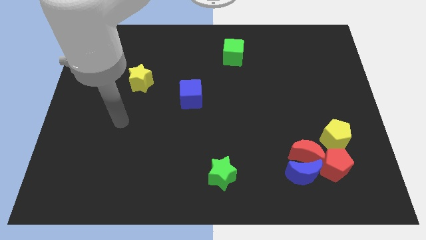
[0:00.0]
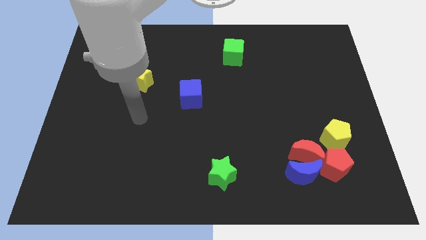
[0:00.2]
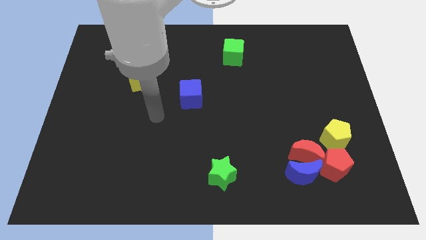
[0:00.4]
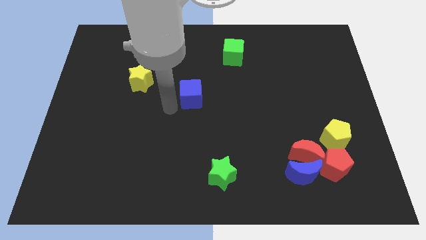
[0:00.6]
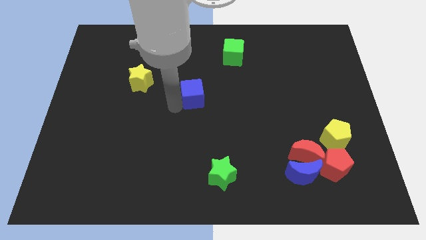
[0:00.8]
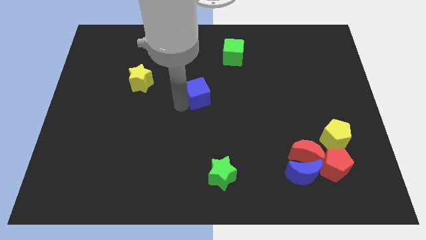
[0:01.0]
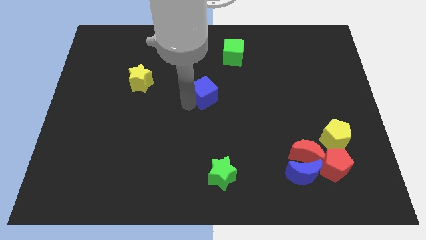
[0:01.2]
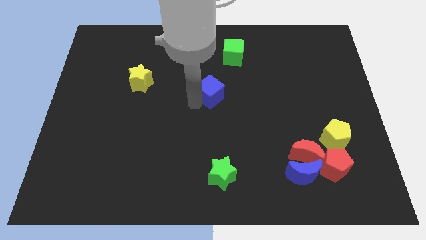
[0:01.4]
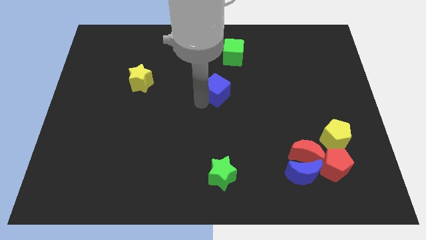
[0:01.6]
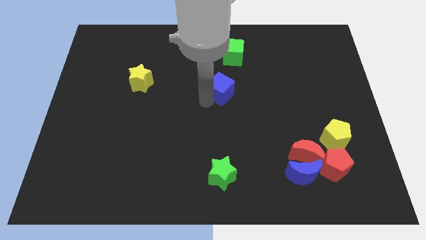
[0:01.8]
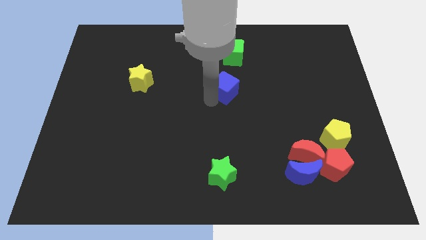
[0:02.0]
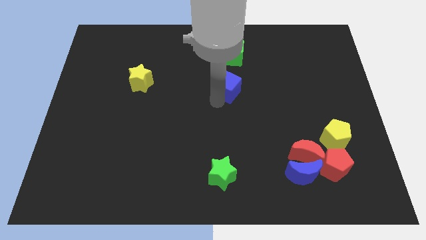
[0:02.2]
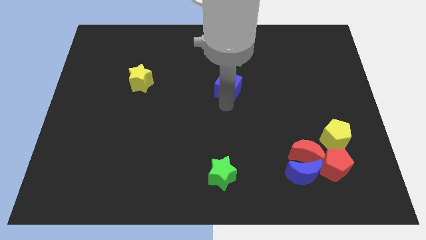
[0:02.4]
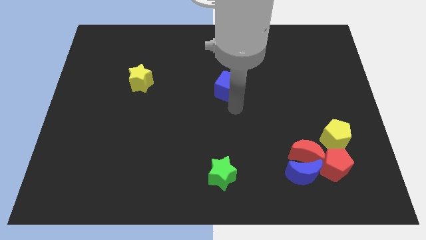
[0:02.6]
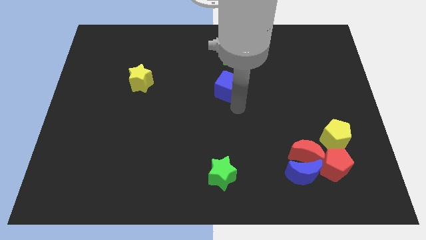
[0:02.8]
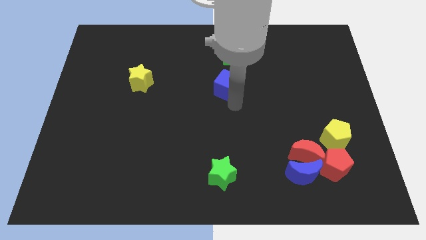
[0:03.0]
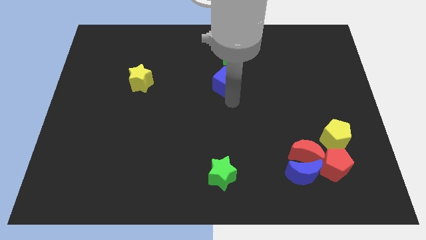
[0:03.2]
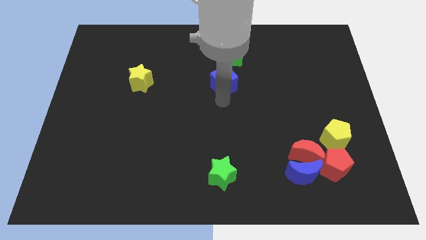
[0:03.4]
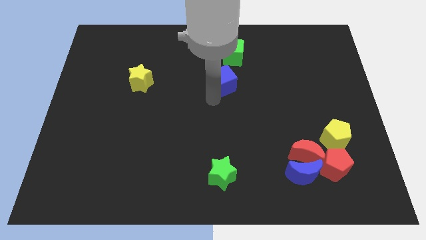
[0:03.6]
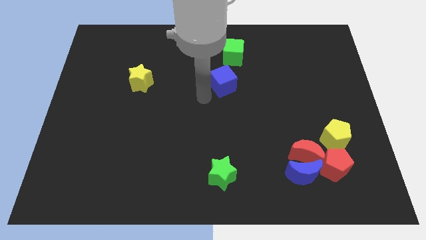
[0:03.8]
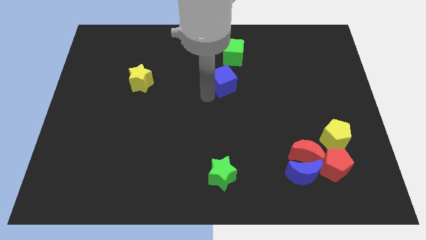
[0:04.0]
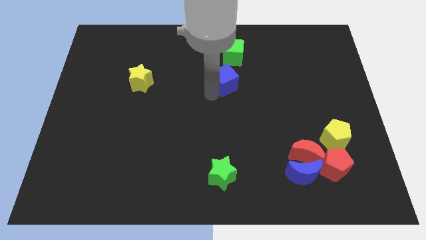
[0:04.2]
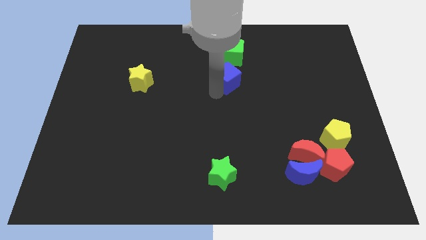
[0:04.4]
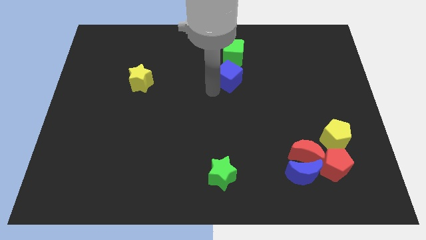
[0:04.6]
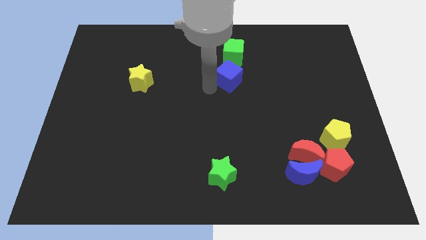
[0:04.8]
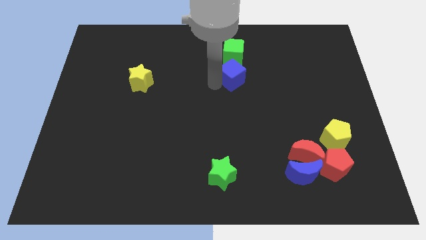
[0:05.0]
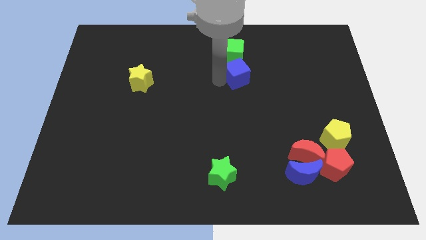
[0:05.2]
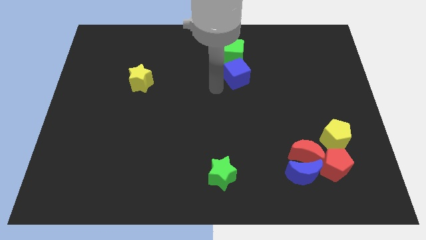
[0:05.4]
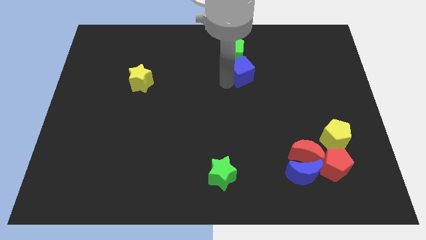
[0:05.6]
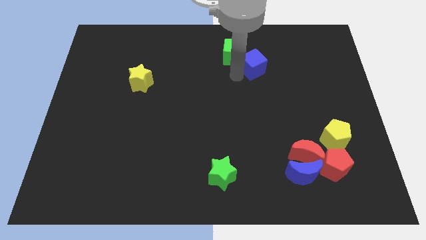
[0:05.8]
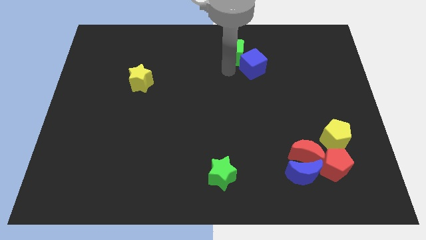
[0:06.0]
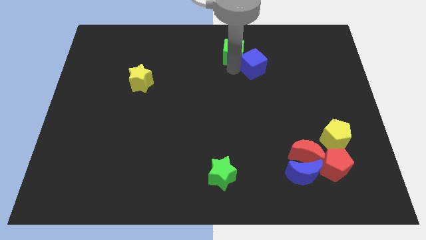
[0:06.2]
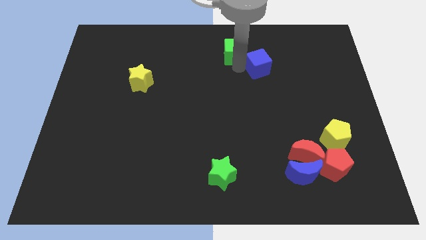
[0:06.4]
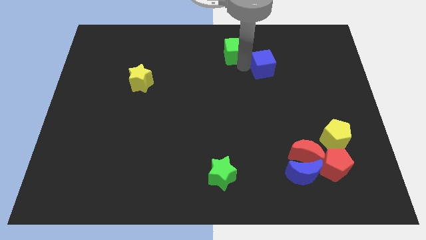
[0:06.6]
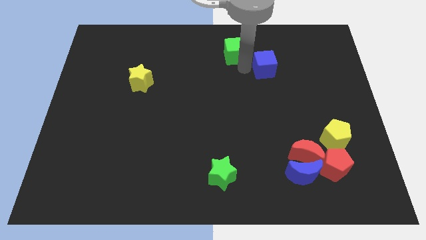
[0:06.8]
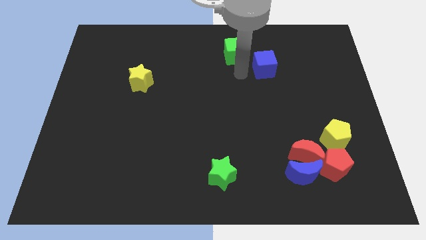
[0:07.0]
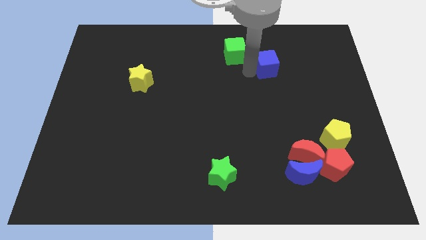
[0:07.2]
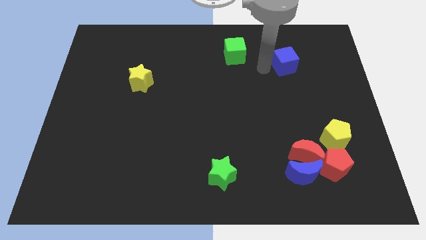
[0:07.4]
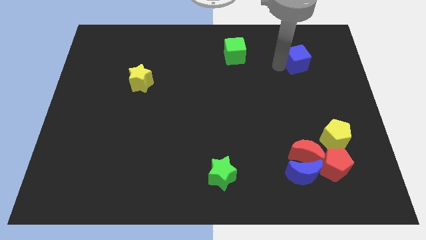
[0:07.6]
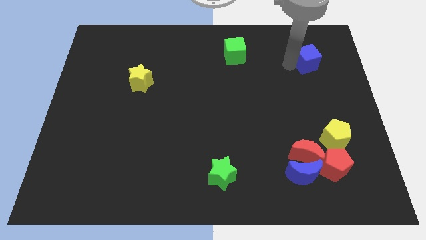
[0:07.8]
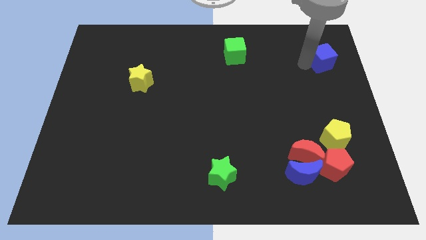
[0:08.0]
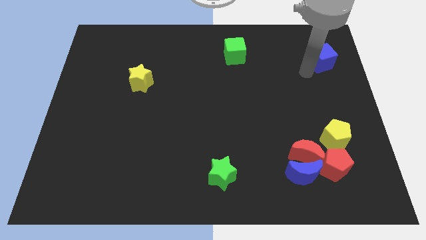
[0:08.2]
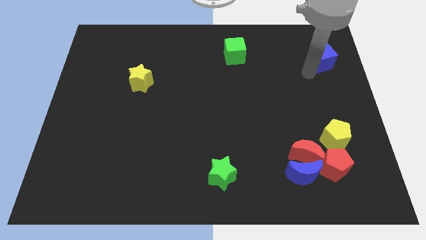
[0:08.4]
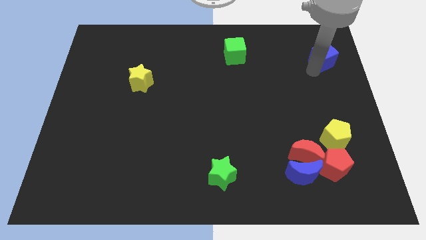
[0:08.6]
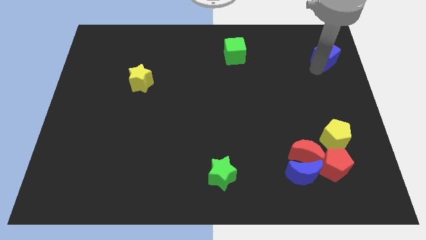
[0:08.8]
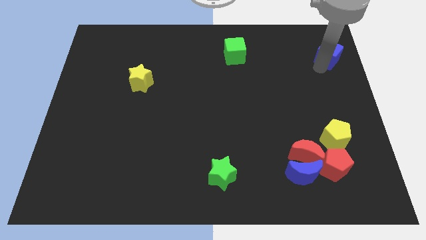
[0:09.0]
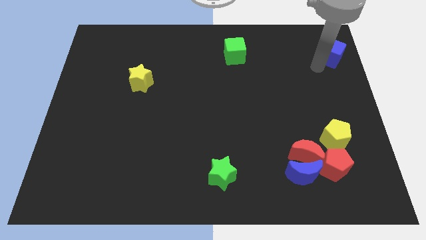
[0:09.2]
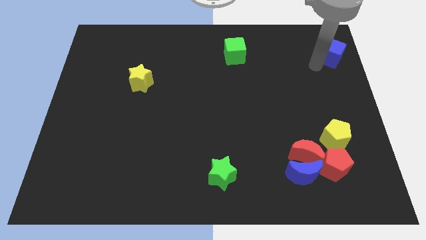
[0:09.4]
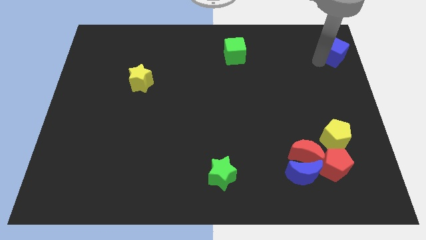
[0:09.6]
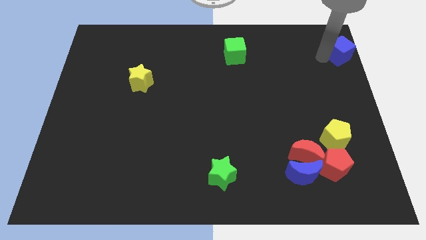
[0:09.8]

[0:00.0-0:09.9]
put the blue cube to the top right of the board

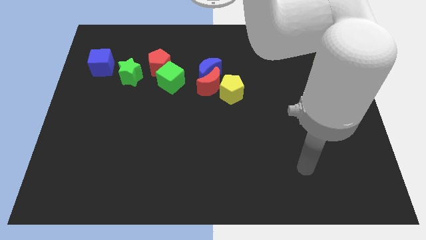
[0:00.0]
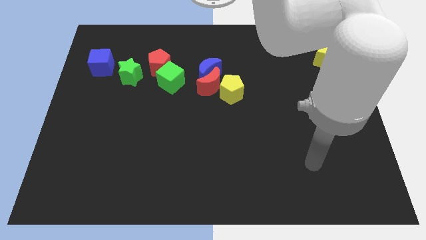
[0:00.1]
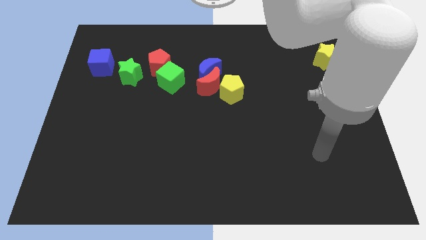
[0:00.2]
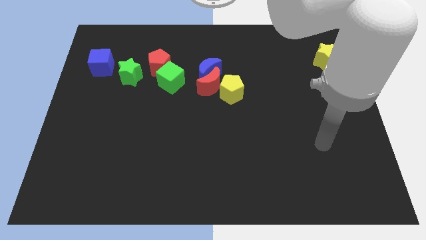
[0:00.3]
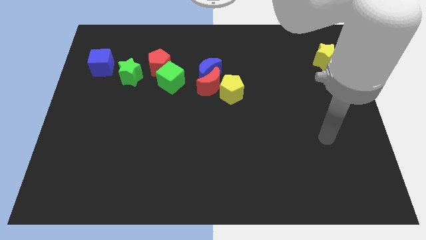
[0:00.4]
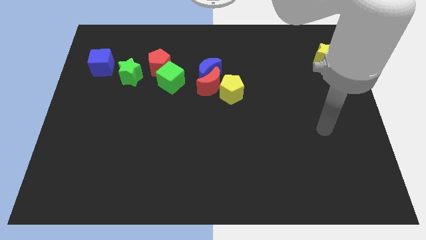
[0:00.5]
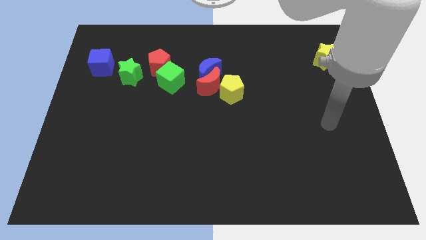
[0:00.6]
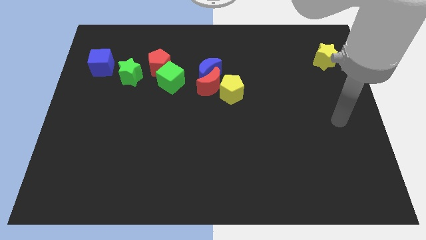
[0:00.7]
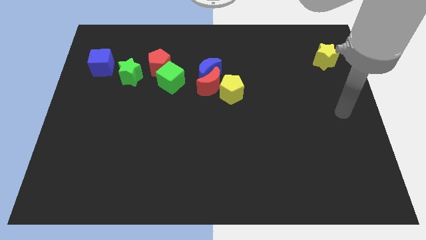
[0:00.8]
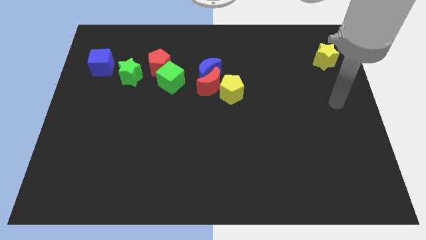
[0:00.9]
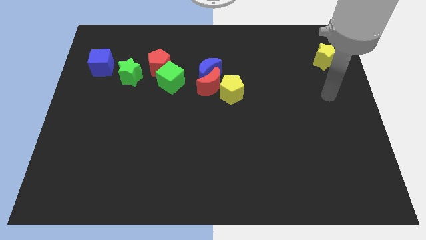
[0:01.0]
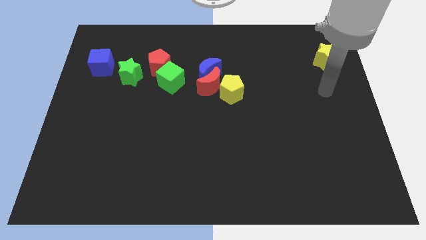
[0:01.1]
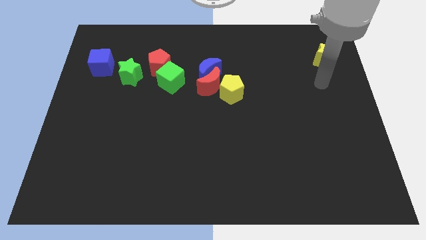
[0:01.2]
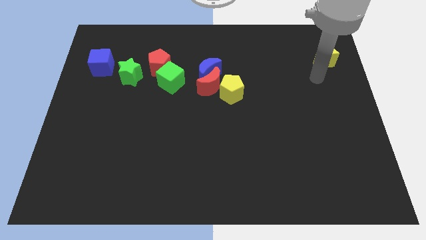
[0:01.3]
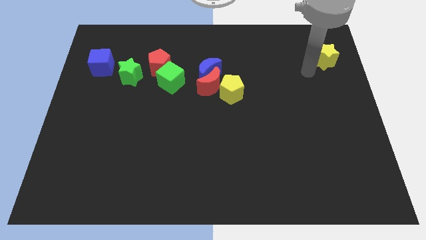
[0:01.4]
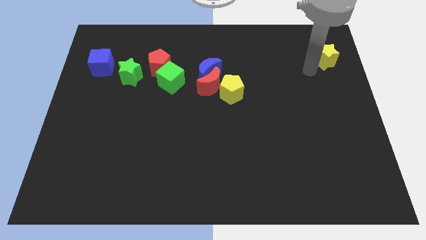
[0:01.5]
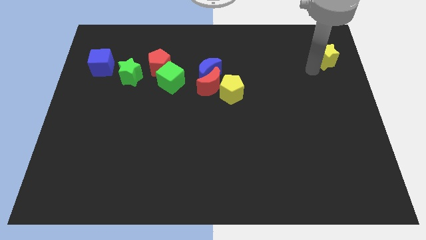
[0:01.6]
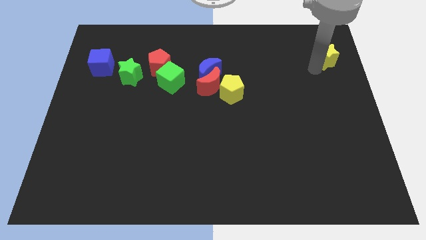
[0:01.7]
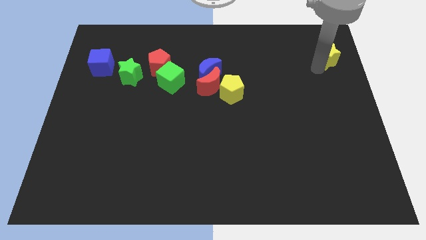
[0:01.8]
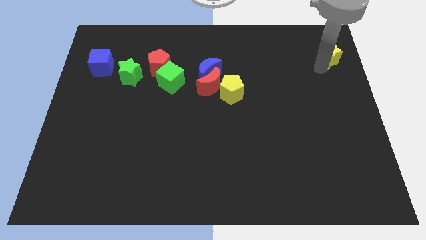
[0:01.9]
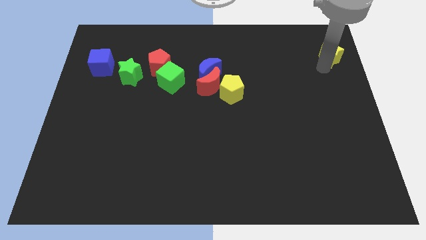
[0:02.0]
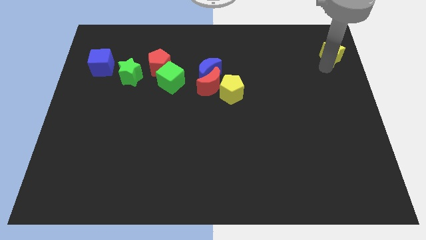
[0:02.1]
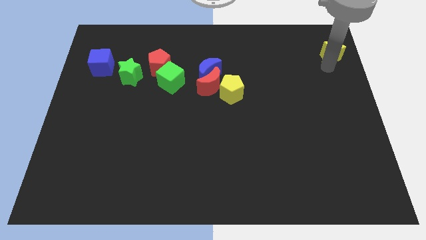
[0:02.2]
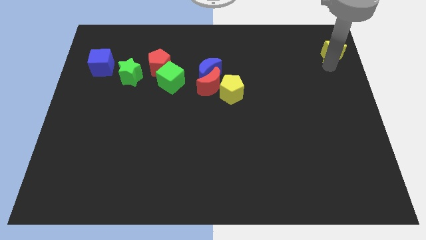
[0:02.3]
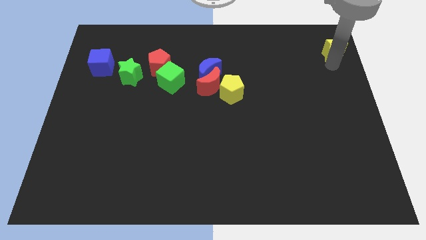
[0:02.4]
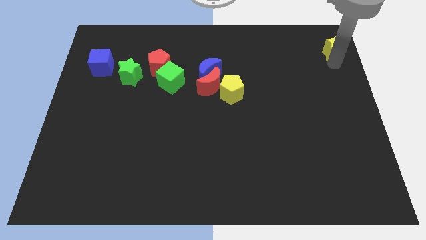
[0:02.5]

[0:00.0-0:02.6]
push the yellow star to the top right corner
